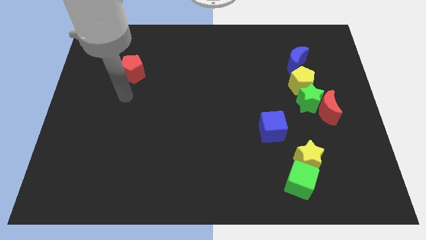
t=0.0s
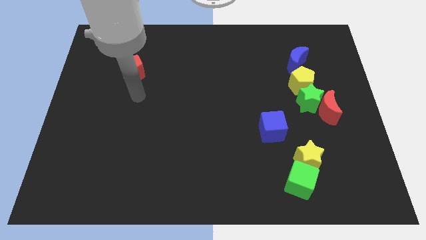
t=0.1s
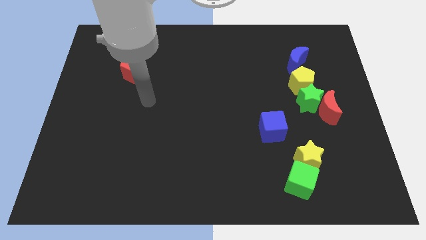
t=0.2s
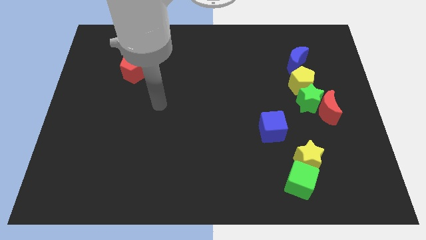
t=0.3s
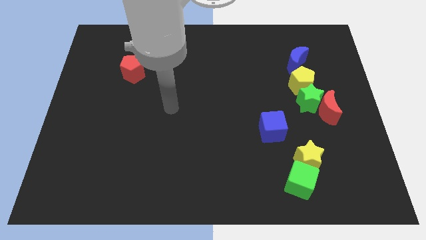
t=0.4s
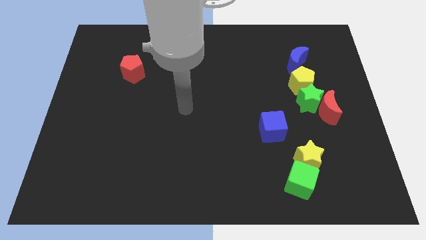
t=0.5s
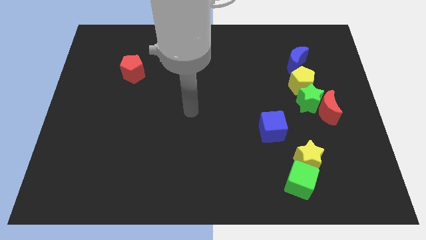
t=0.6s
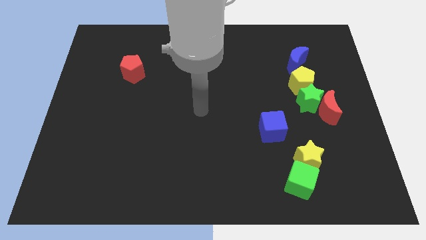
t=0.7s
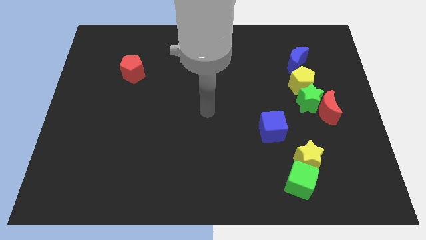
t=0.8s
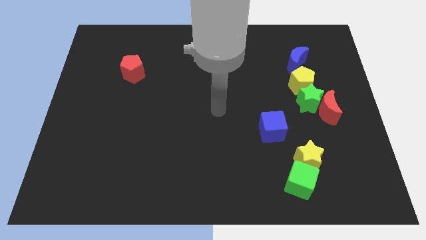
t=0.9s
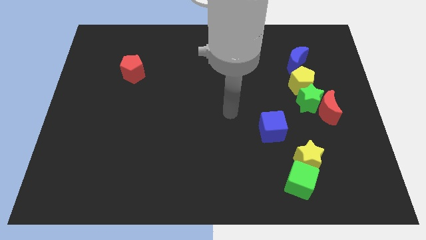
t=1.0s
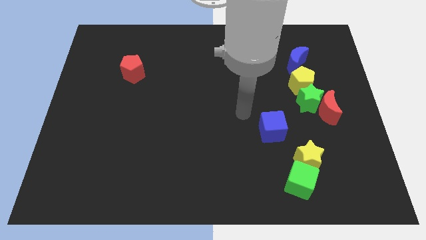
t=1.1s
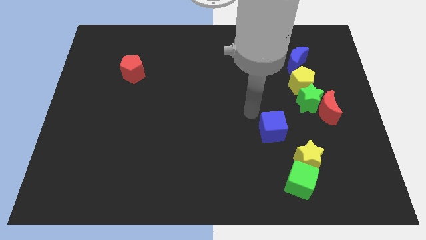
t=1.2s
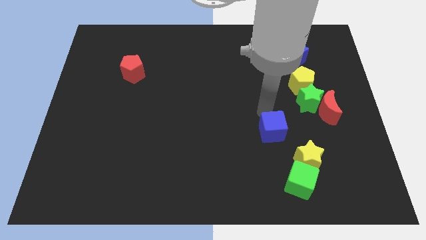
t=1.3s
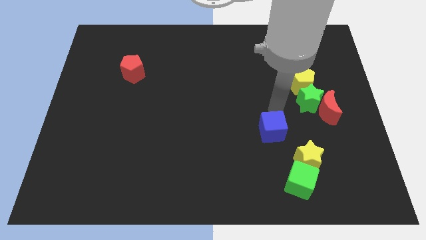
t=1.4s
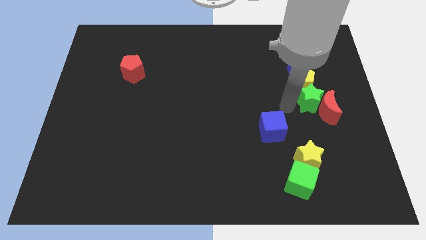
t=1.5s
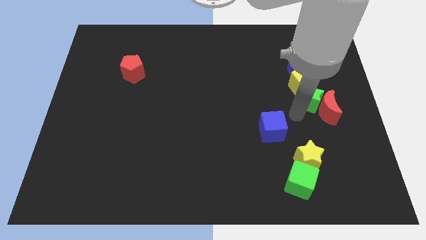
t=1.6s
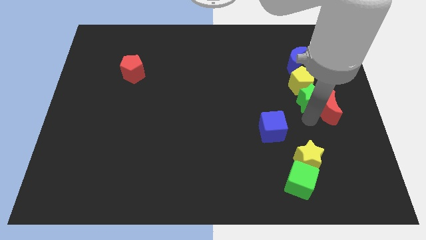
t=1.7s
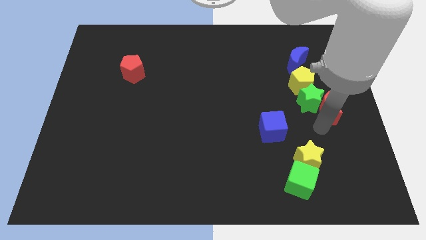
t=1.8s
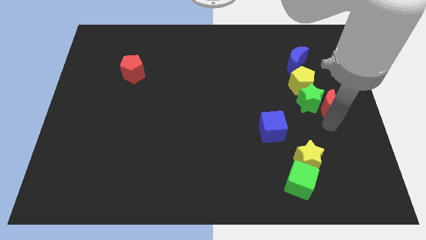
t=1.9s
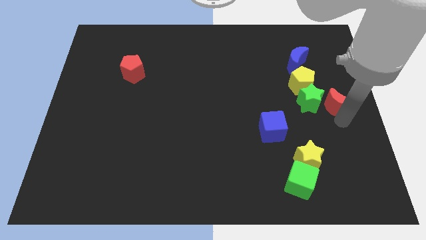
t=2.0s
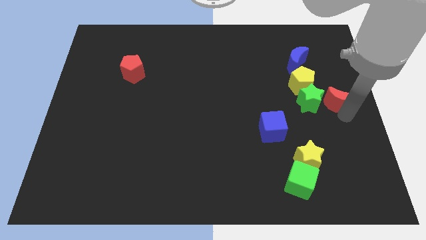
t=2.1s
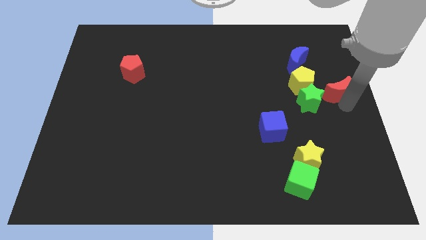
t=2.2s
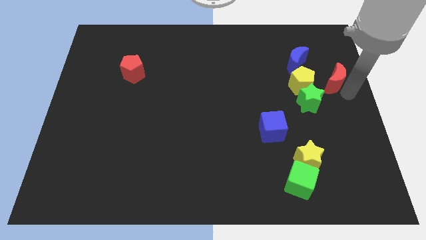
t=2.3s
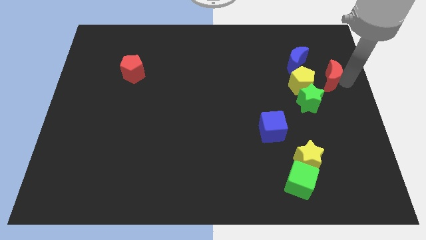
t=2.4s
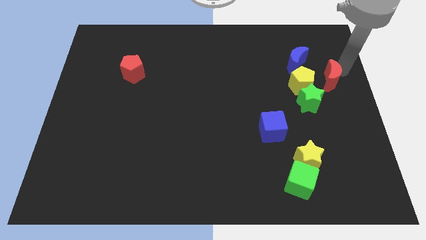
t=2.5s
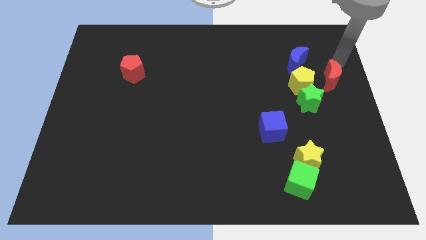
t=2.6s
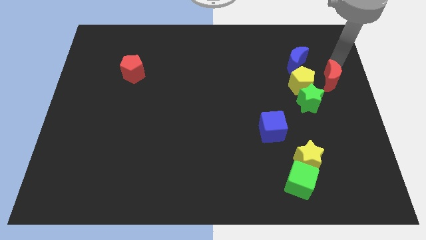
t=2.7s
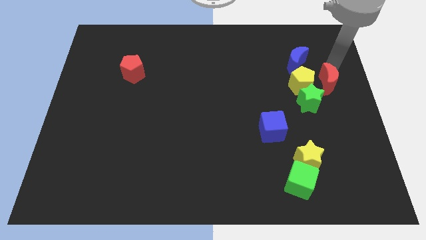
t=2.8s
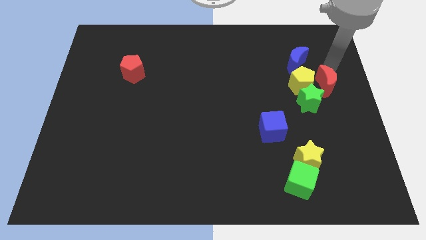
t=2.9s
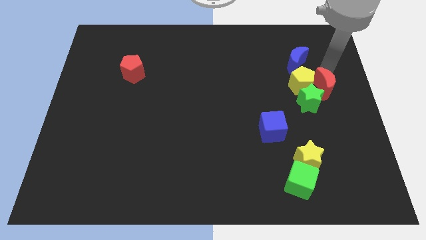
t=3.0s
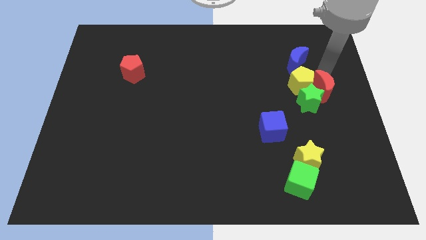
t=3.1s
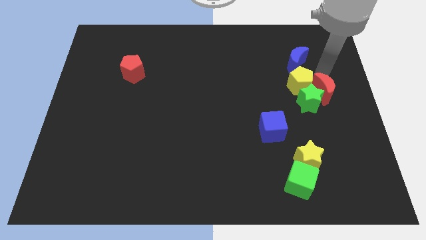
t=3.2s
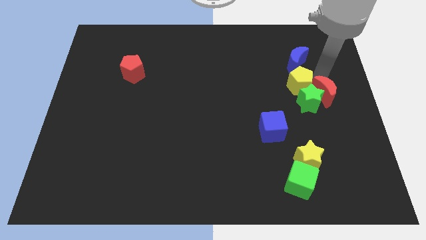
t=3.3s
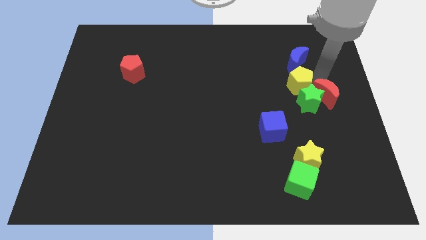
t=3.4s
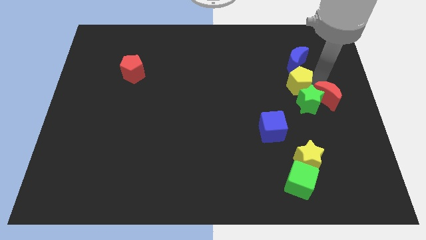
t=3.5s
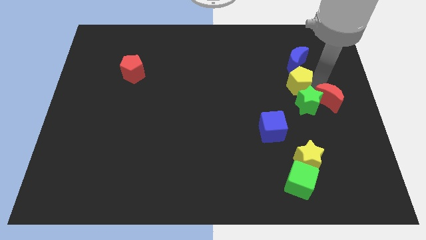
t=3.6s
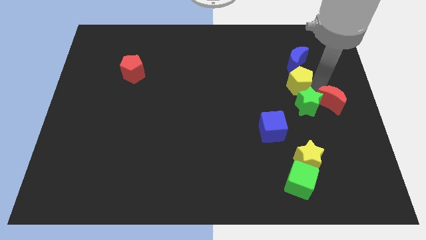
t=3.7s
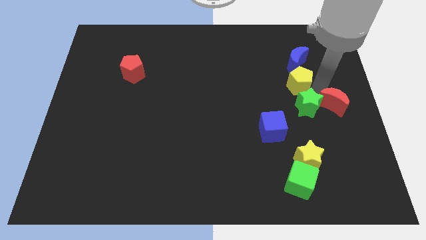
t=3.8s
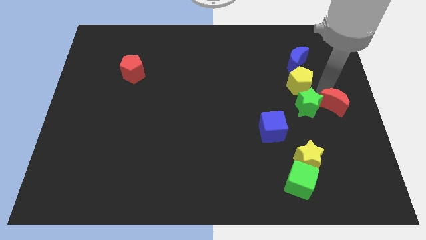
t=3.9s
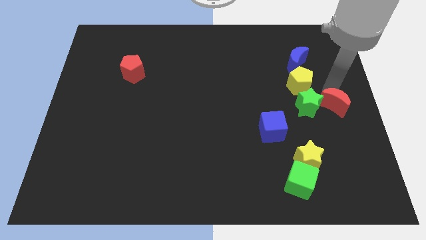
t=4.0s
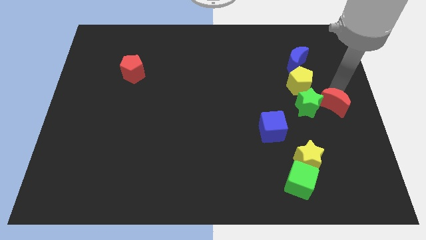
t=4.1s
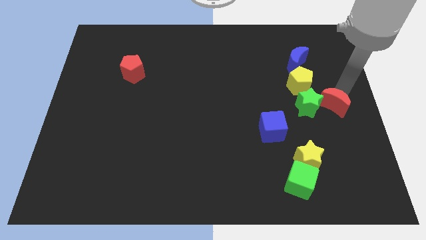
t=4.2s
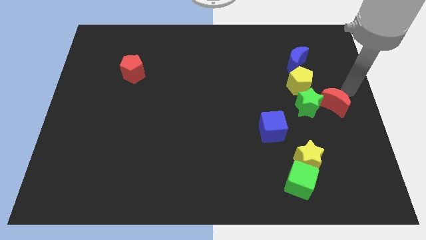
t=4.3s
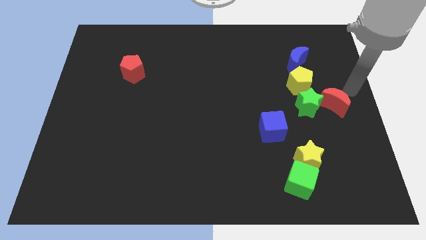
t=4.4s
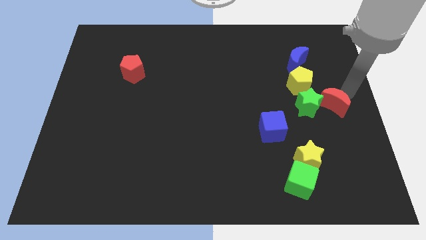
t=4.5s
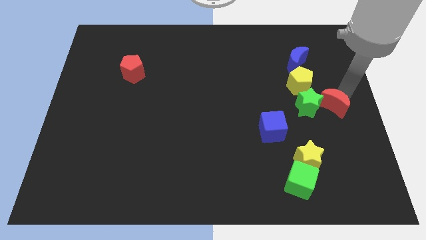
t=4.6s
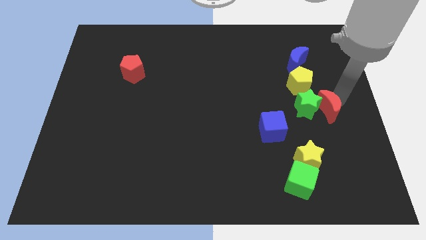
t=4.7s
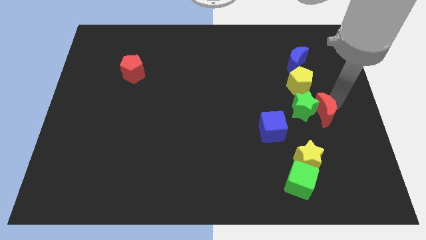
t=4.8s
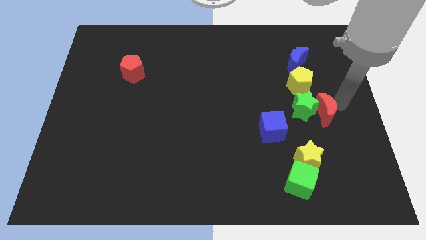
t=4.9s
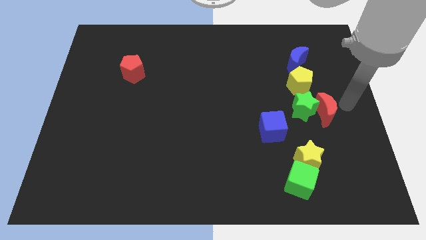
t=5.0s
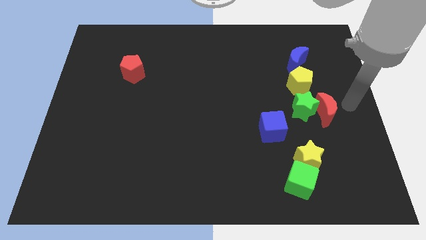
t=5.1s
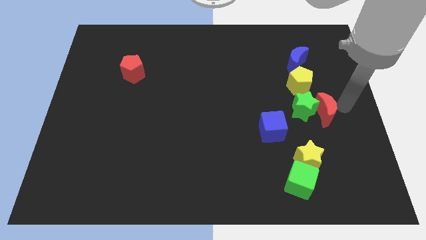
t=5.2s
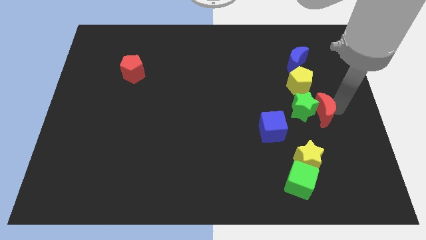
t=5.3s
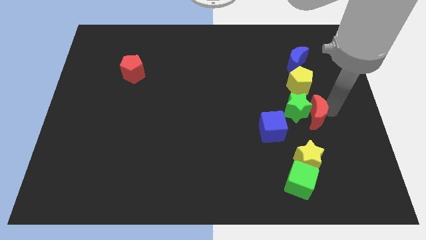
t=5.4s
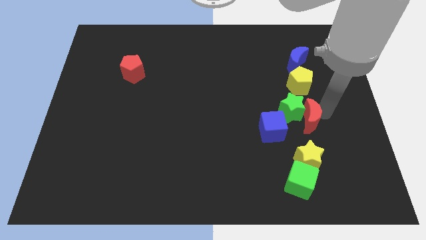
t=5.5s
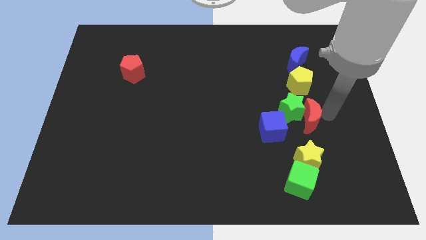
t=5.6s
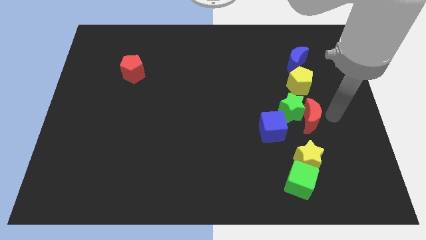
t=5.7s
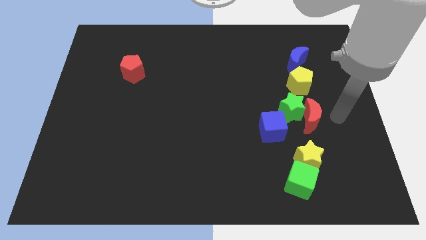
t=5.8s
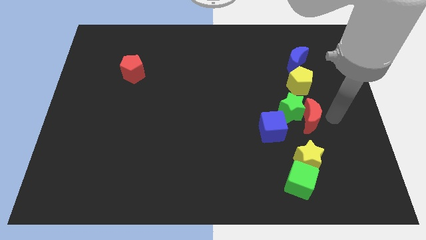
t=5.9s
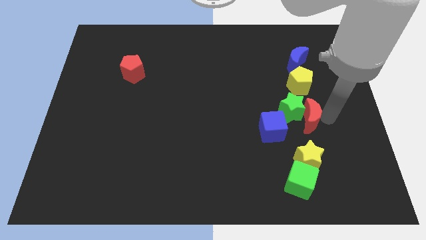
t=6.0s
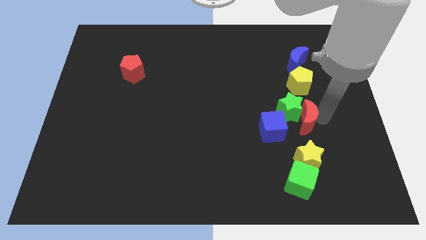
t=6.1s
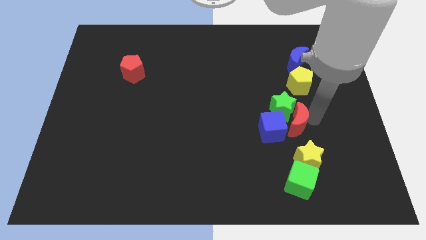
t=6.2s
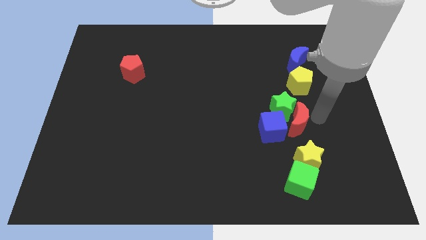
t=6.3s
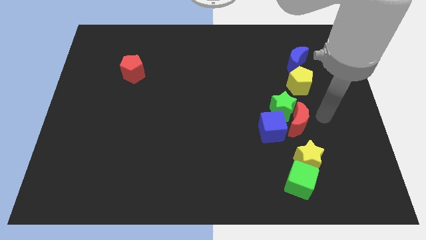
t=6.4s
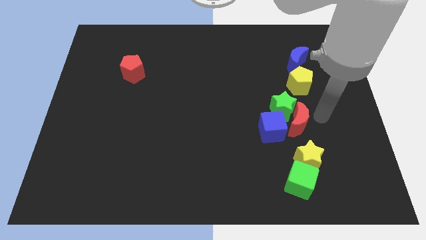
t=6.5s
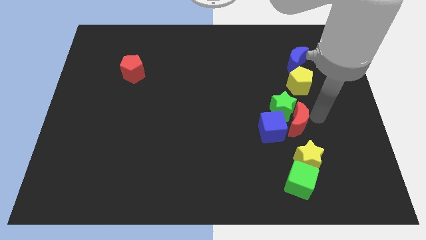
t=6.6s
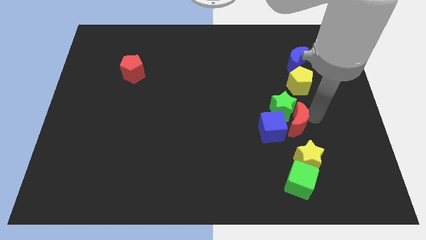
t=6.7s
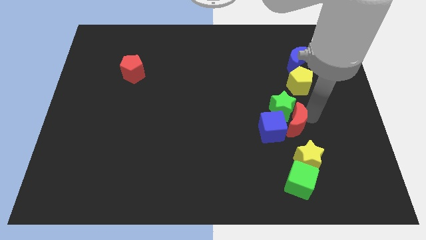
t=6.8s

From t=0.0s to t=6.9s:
push the red moon close to the blue cube

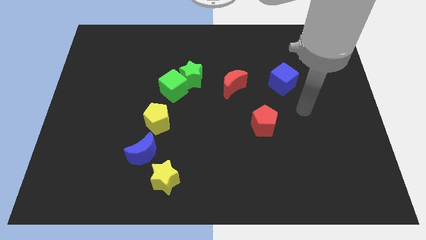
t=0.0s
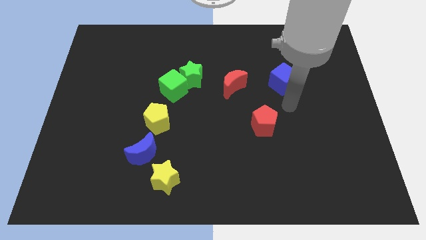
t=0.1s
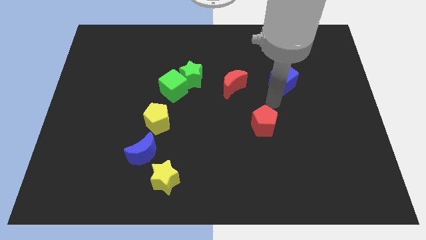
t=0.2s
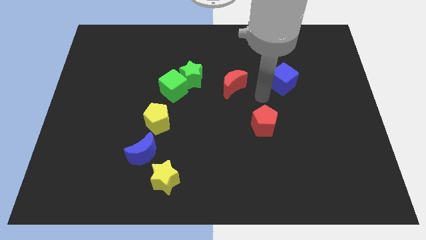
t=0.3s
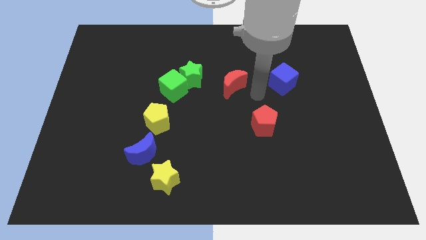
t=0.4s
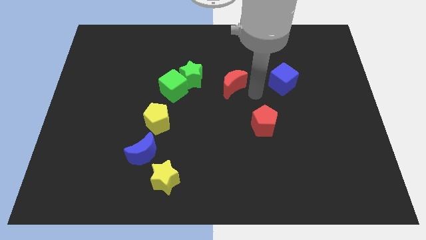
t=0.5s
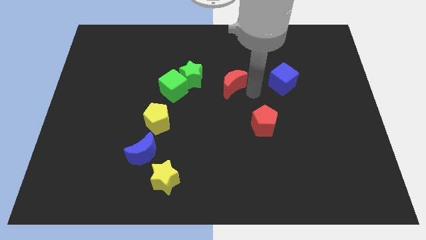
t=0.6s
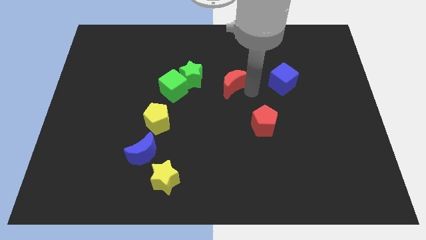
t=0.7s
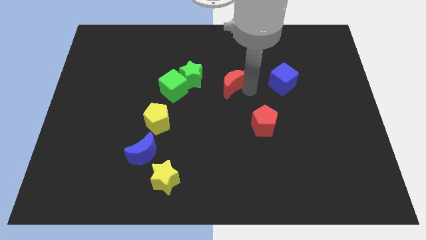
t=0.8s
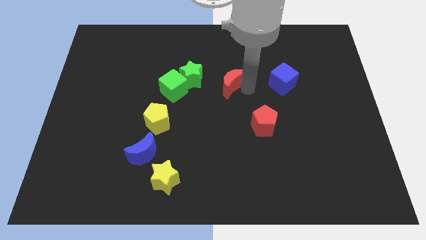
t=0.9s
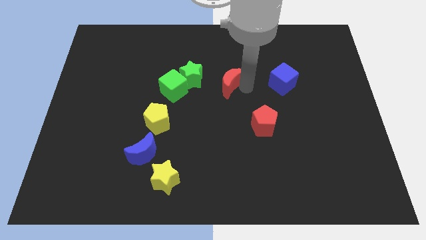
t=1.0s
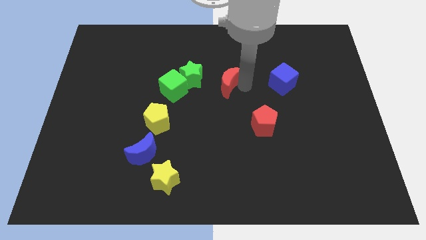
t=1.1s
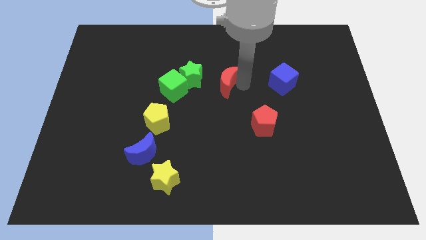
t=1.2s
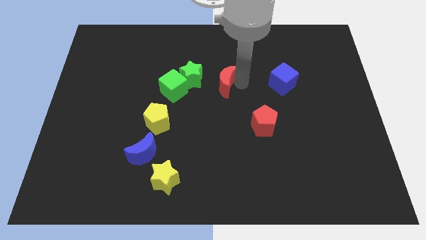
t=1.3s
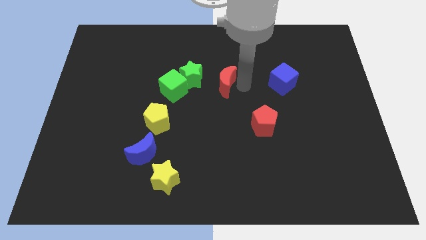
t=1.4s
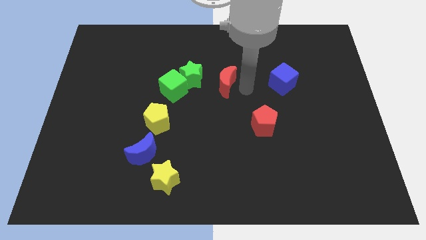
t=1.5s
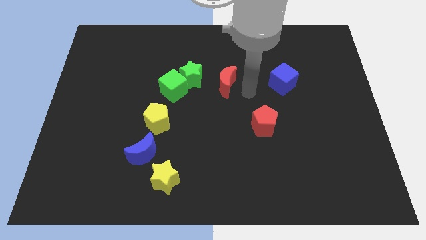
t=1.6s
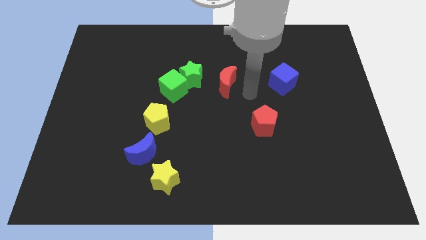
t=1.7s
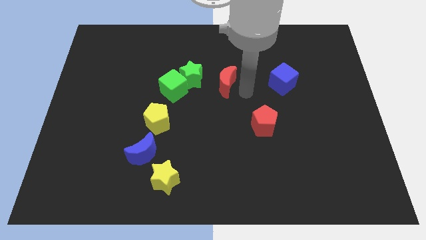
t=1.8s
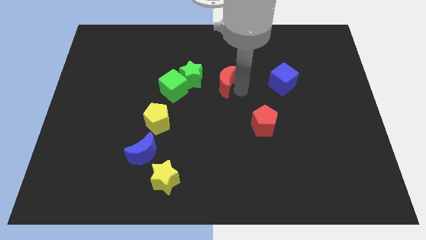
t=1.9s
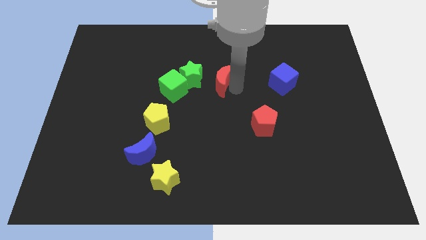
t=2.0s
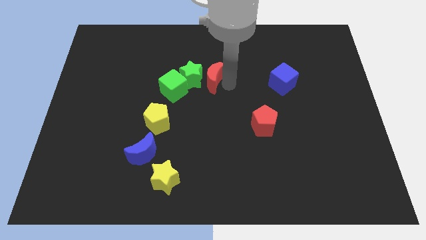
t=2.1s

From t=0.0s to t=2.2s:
move the red moon next to the green star
